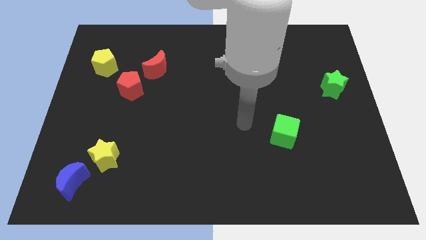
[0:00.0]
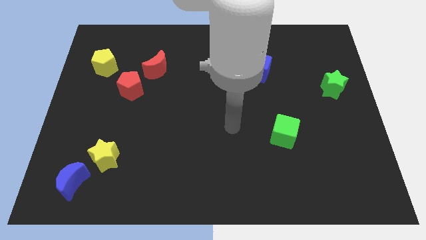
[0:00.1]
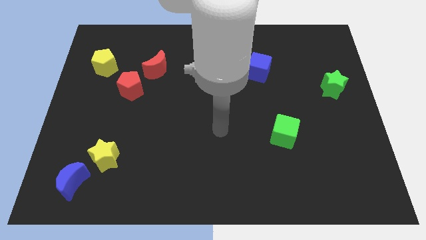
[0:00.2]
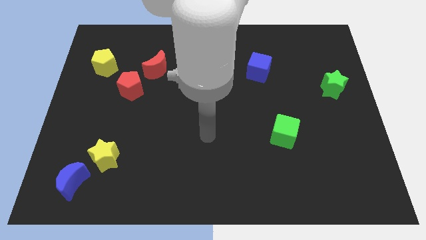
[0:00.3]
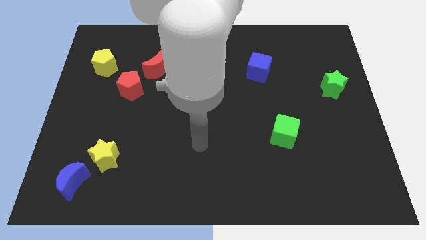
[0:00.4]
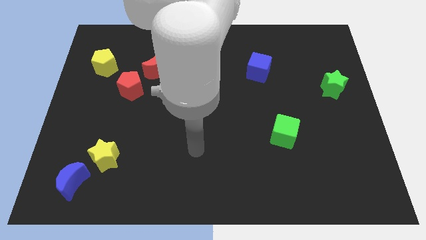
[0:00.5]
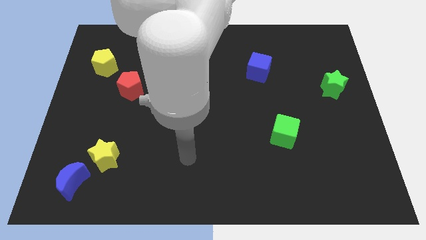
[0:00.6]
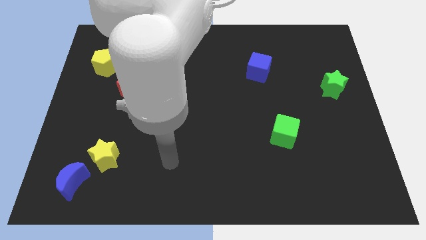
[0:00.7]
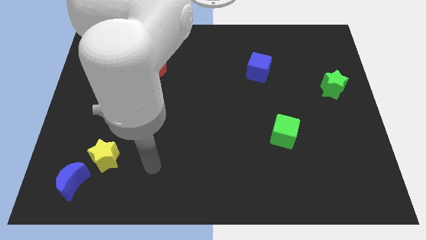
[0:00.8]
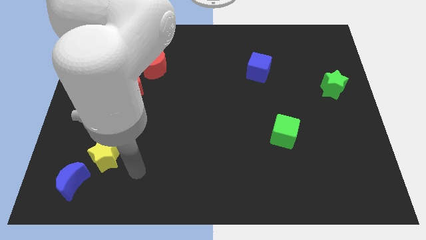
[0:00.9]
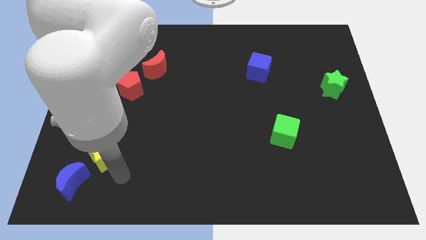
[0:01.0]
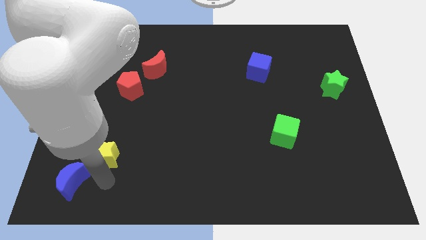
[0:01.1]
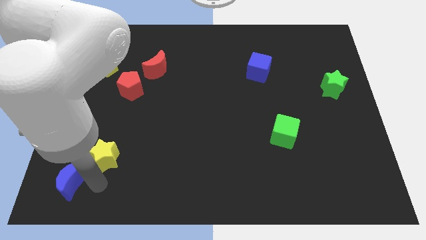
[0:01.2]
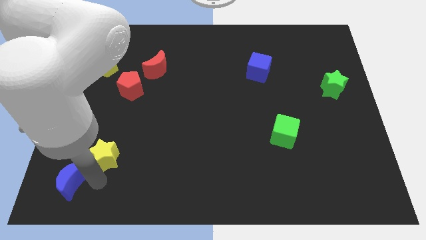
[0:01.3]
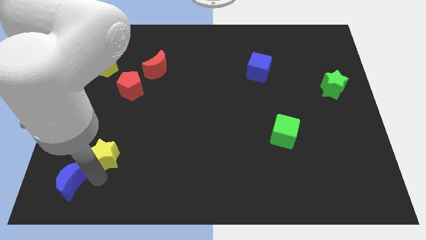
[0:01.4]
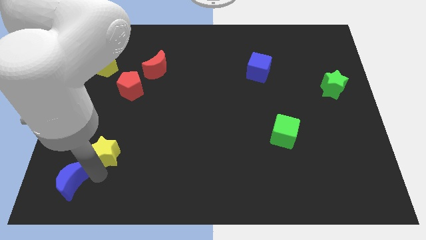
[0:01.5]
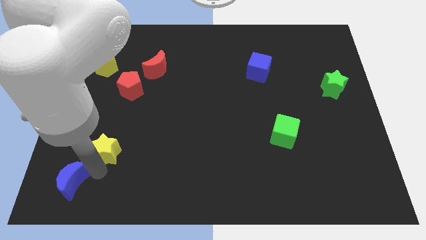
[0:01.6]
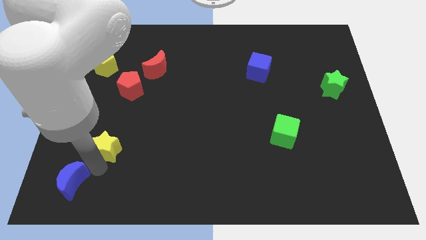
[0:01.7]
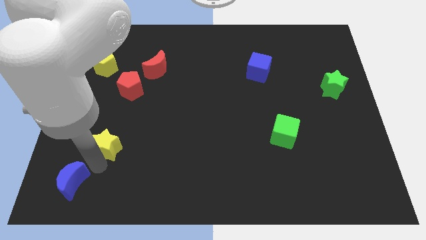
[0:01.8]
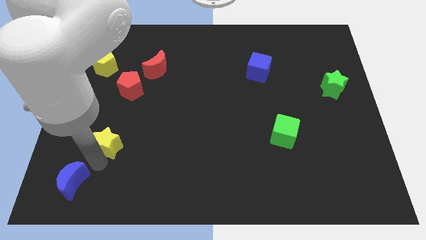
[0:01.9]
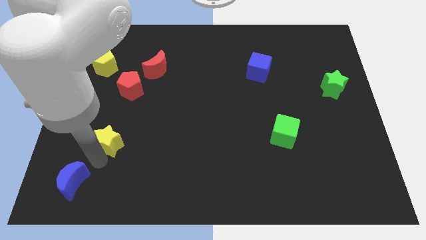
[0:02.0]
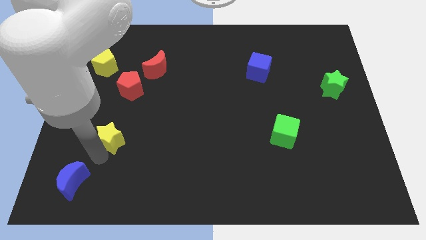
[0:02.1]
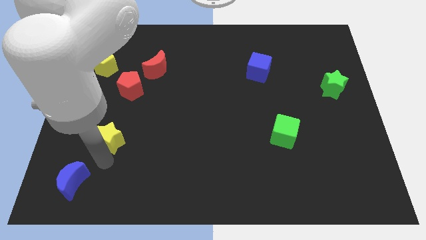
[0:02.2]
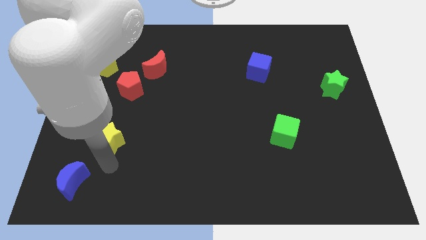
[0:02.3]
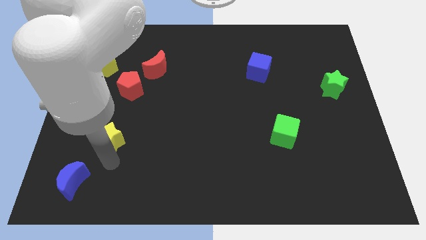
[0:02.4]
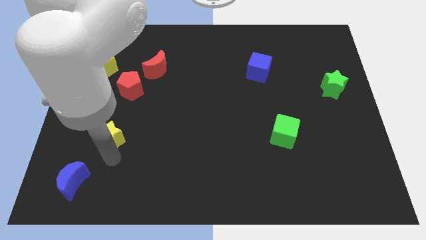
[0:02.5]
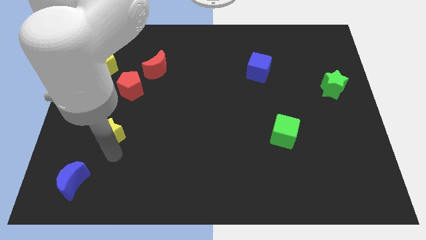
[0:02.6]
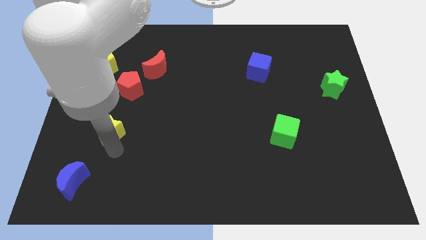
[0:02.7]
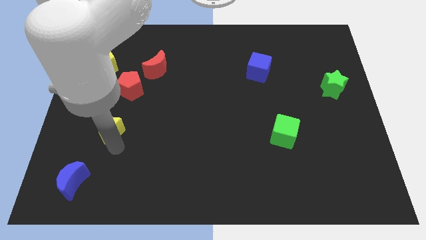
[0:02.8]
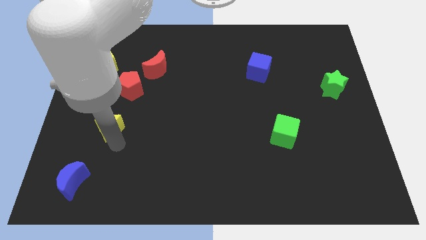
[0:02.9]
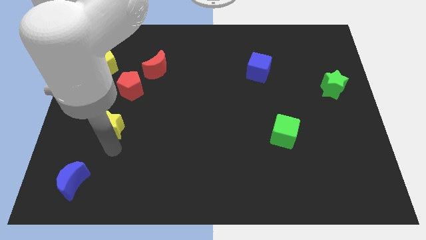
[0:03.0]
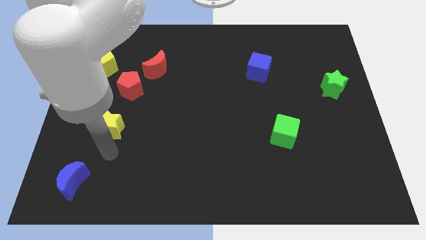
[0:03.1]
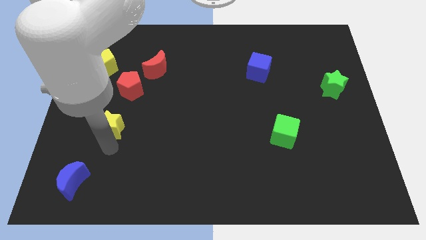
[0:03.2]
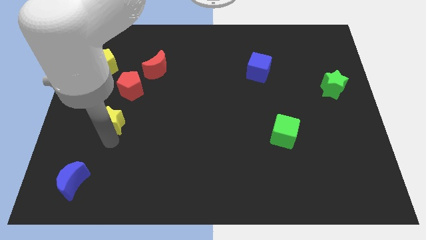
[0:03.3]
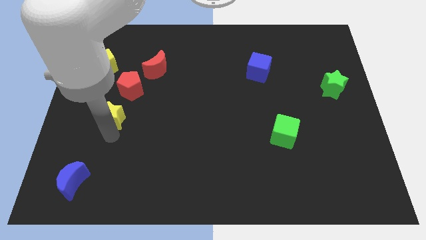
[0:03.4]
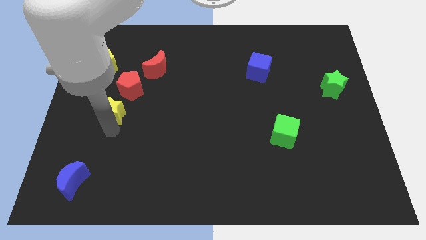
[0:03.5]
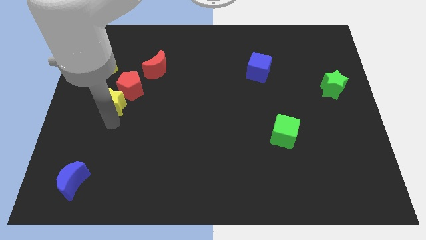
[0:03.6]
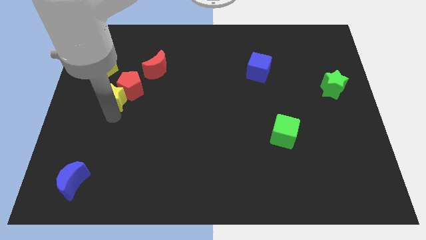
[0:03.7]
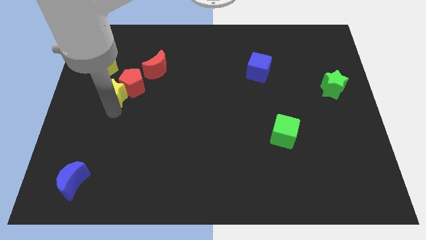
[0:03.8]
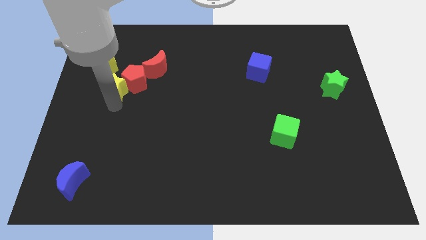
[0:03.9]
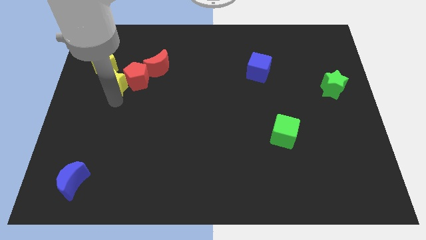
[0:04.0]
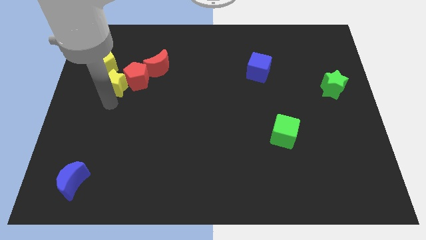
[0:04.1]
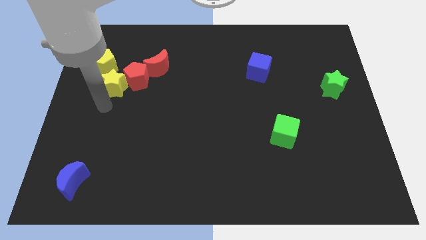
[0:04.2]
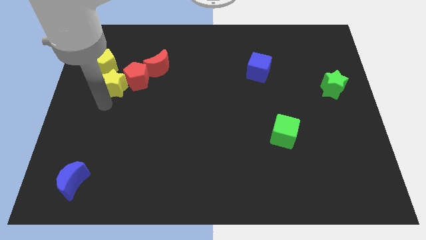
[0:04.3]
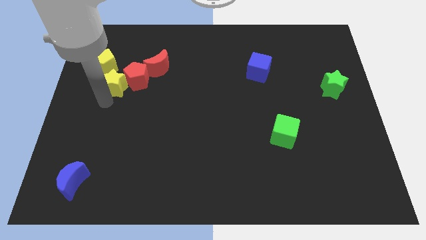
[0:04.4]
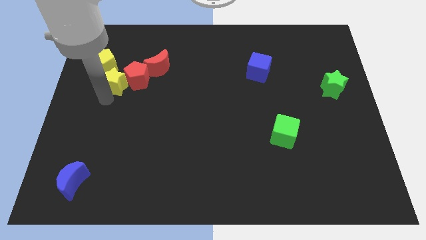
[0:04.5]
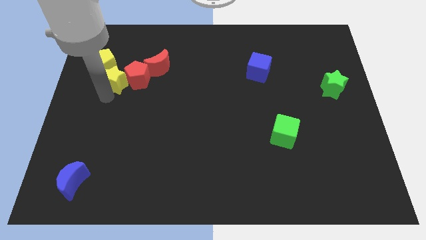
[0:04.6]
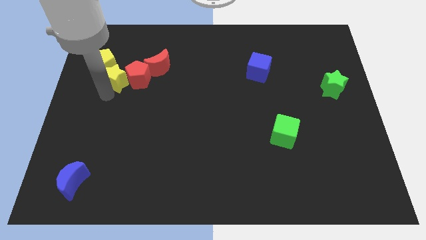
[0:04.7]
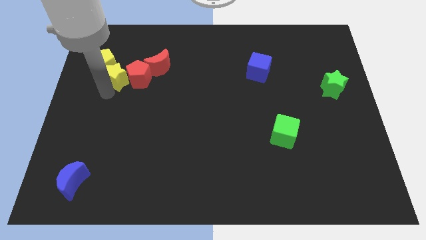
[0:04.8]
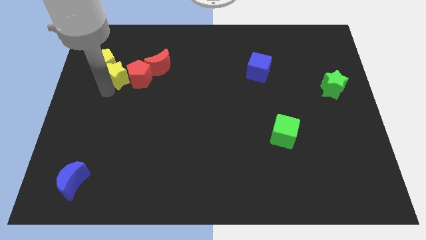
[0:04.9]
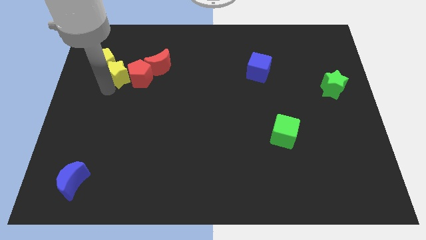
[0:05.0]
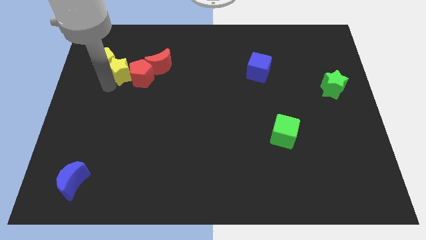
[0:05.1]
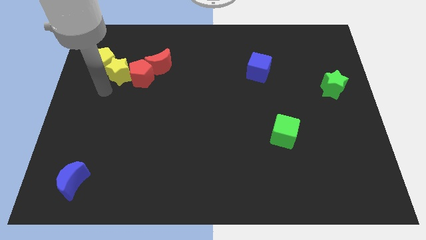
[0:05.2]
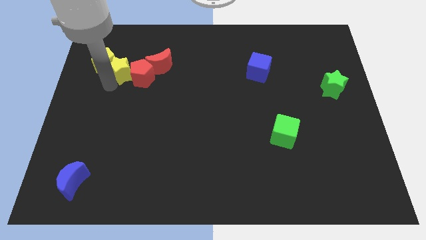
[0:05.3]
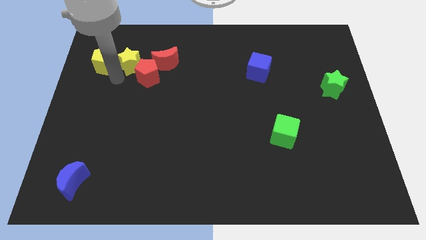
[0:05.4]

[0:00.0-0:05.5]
put the yellow star above the red pentagon

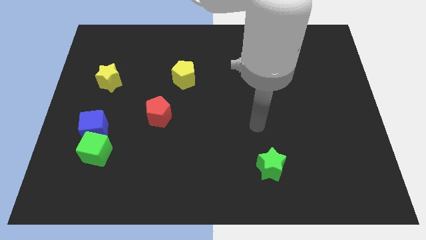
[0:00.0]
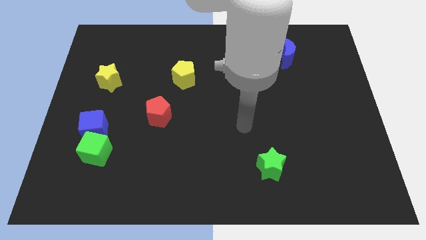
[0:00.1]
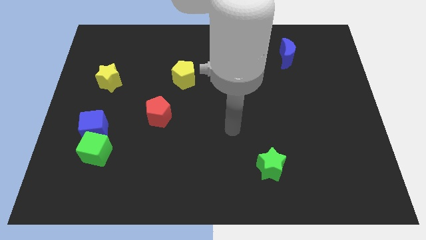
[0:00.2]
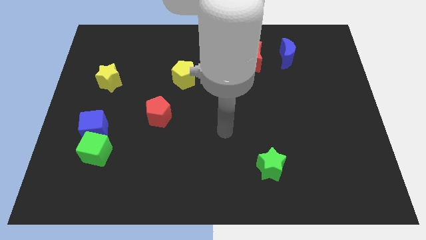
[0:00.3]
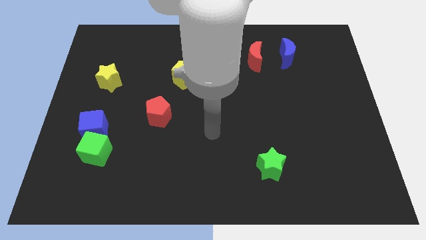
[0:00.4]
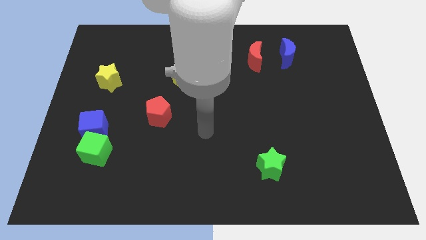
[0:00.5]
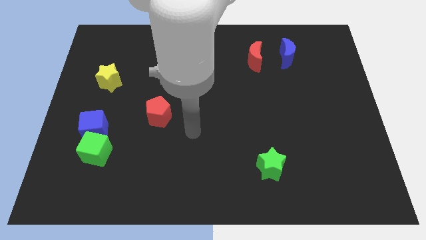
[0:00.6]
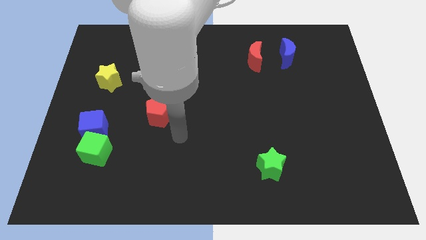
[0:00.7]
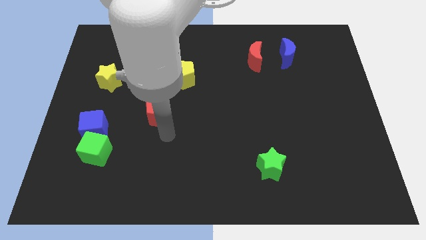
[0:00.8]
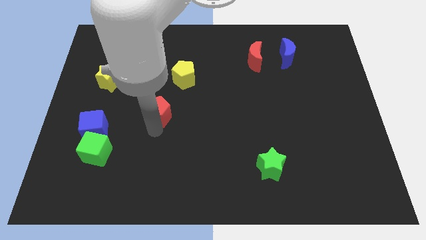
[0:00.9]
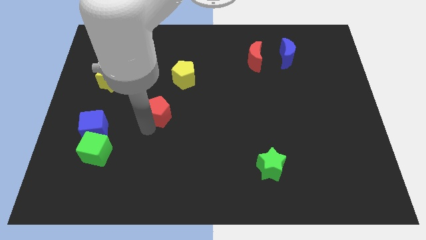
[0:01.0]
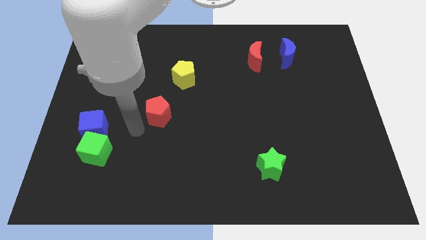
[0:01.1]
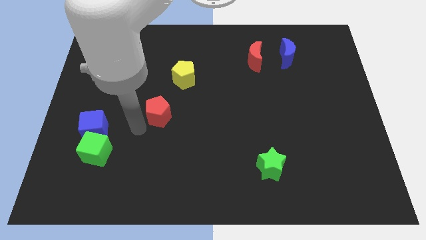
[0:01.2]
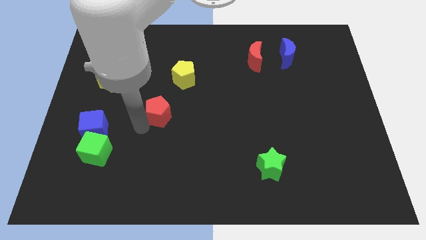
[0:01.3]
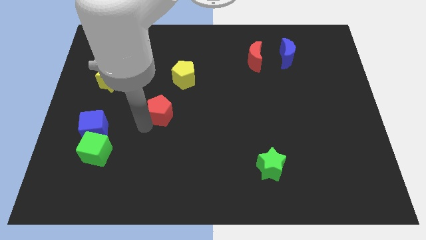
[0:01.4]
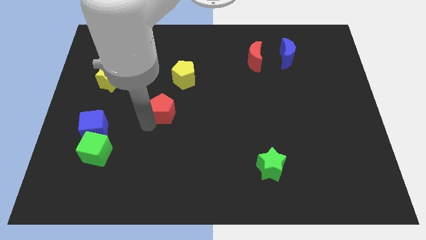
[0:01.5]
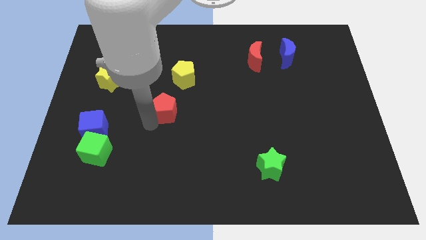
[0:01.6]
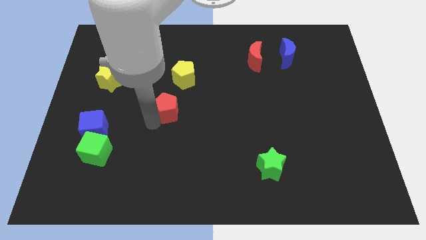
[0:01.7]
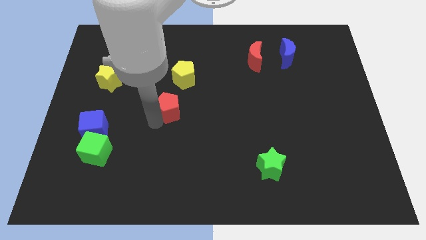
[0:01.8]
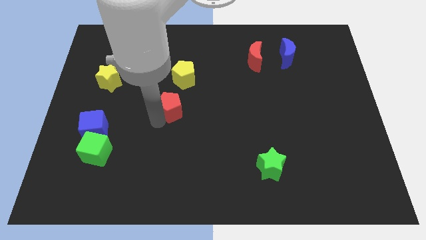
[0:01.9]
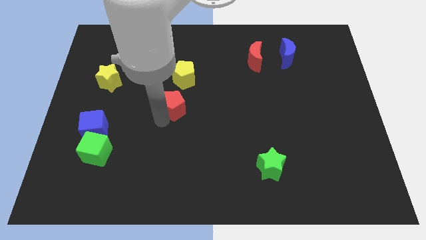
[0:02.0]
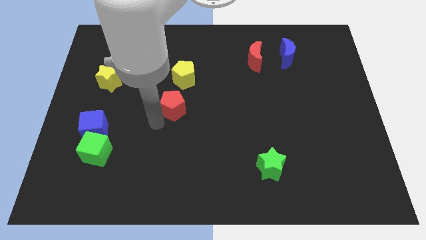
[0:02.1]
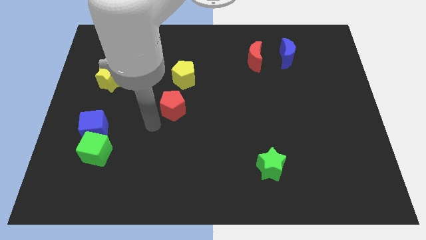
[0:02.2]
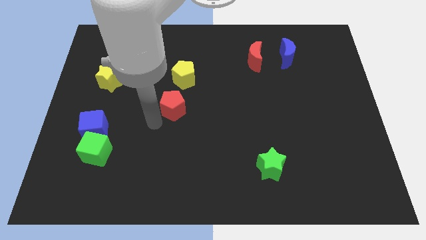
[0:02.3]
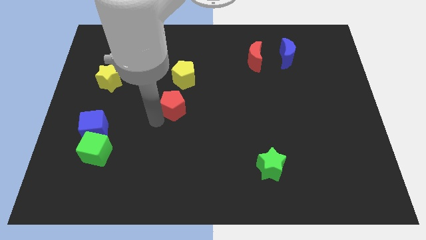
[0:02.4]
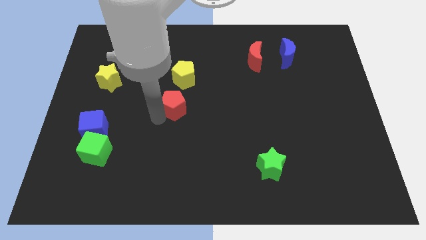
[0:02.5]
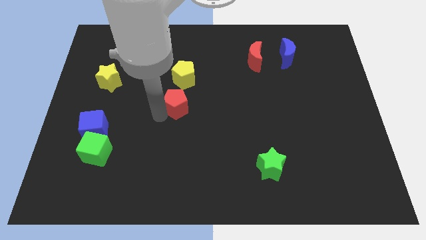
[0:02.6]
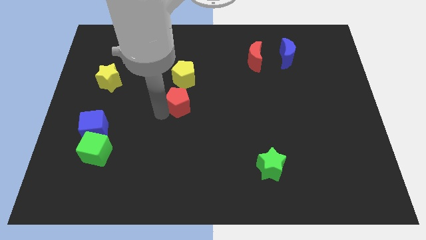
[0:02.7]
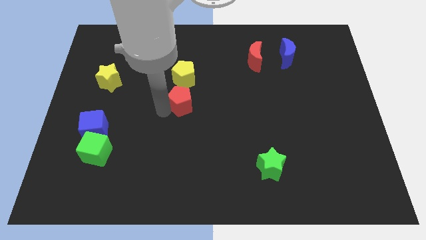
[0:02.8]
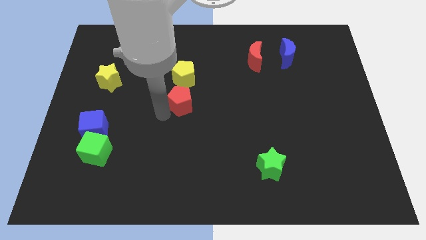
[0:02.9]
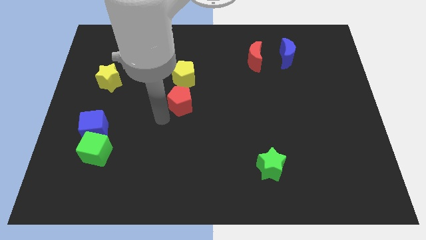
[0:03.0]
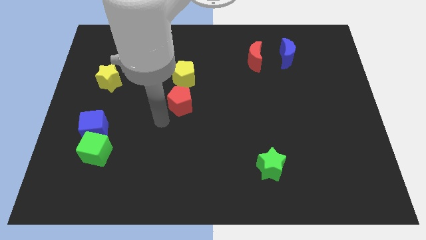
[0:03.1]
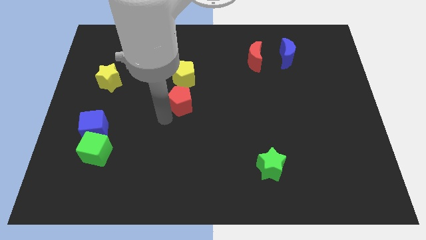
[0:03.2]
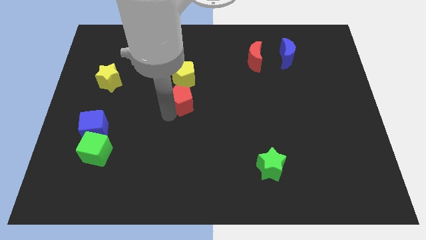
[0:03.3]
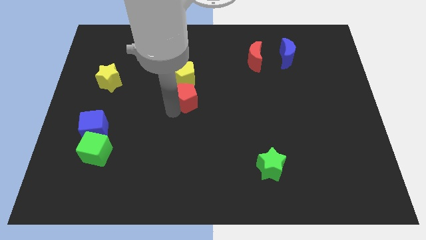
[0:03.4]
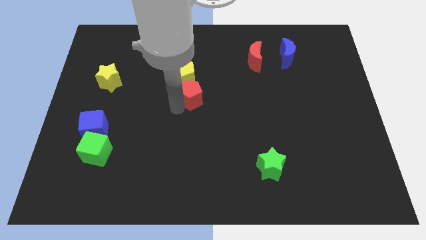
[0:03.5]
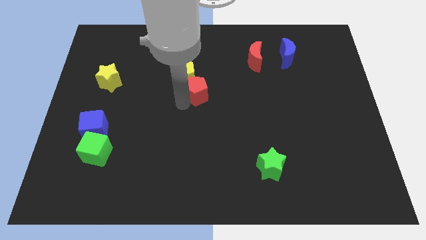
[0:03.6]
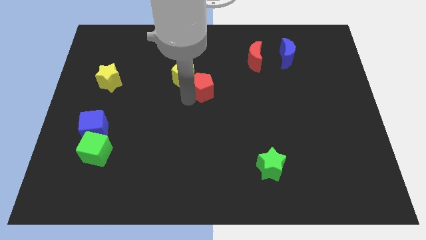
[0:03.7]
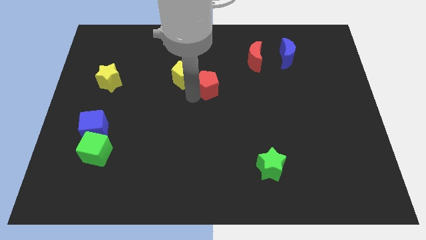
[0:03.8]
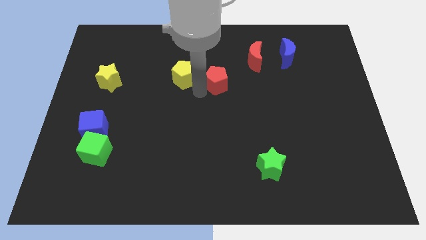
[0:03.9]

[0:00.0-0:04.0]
put the red pentagon diagonally down and to the left of the red moon
